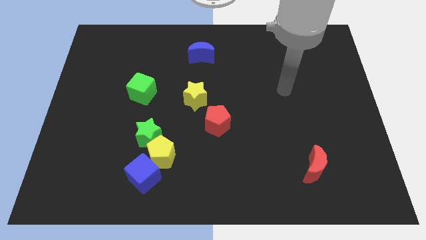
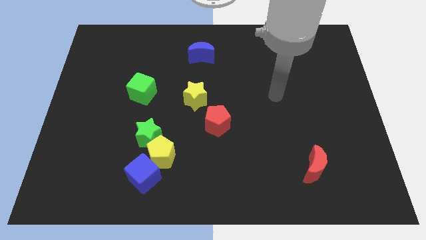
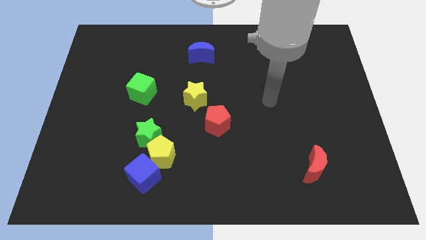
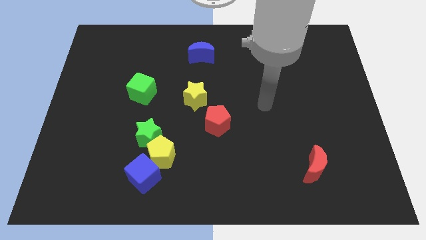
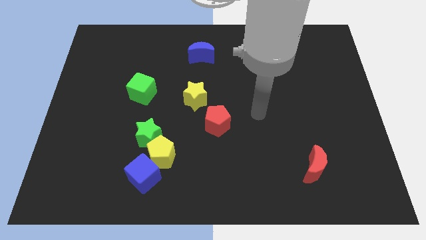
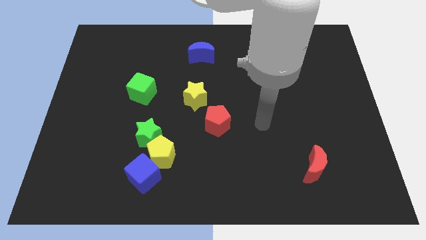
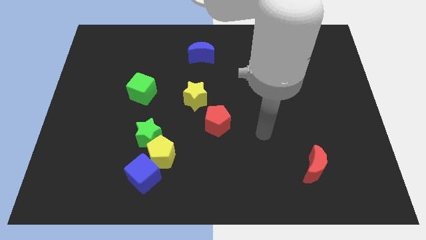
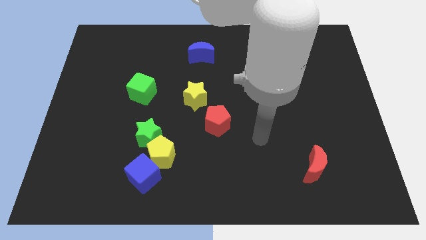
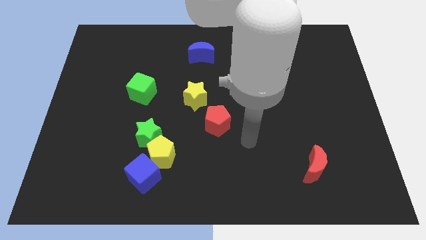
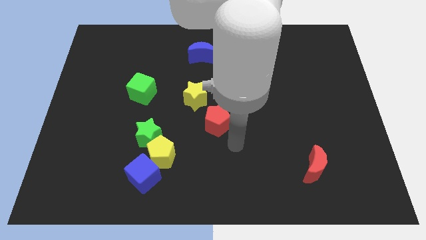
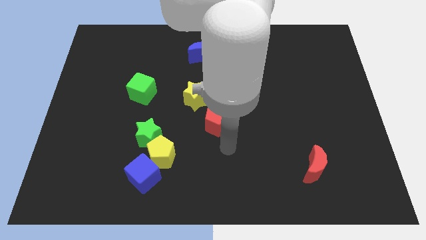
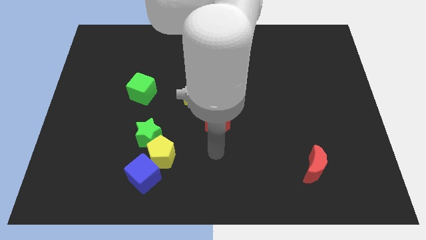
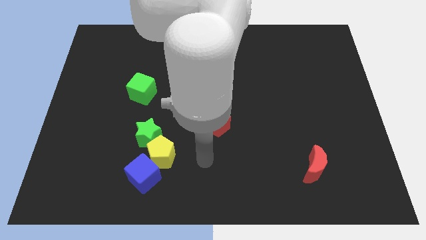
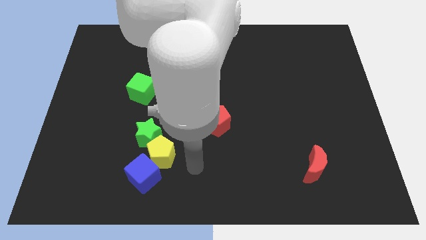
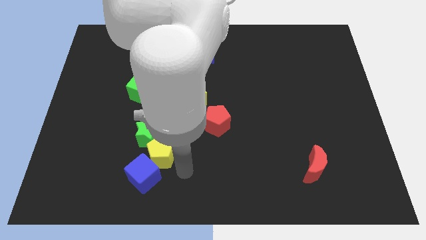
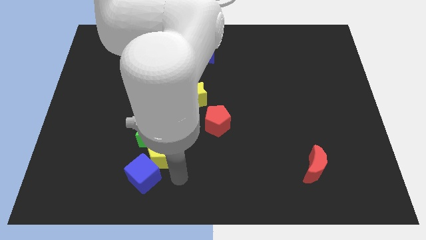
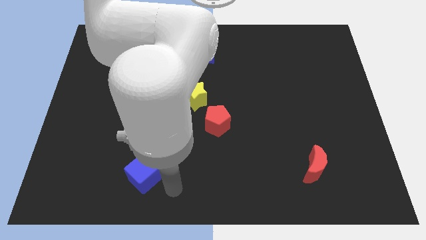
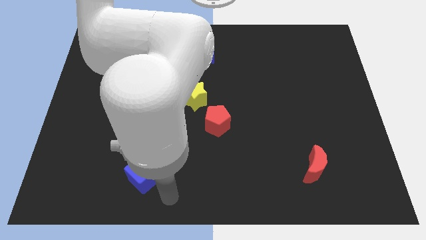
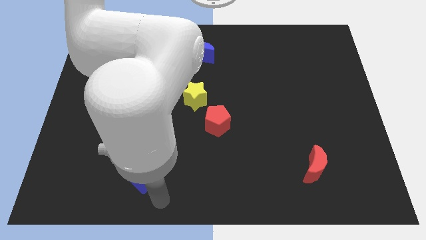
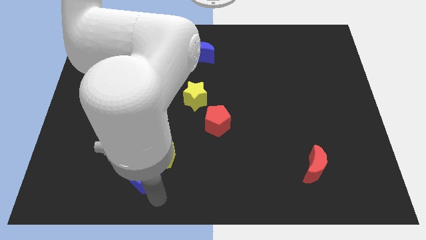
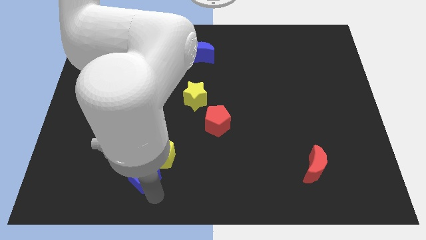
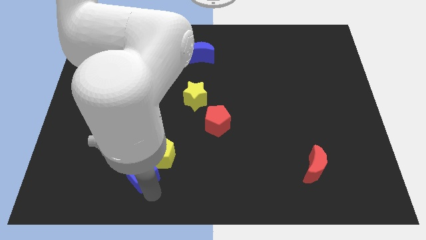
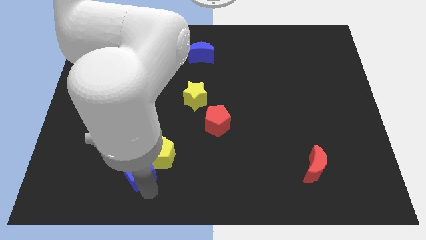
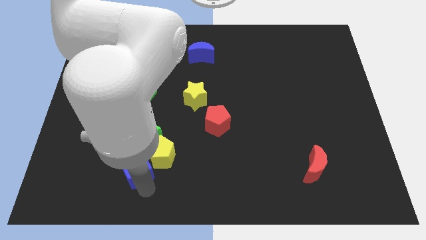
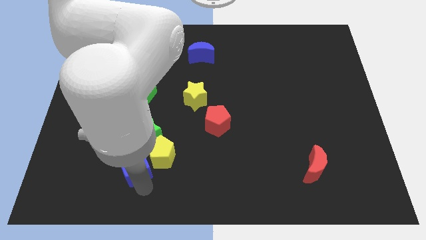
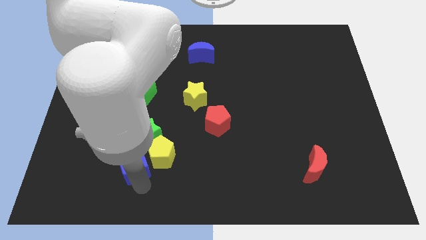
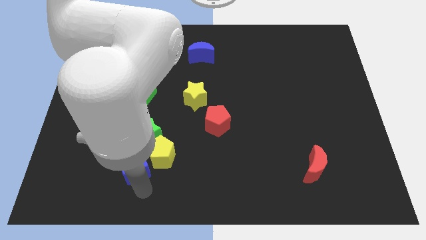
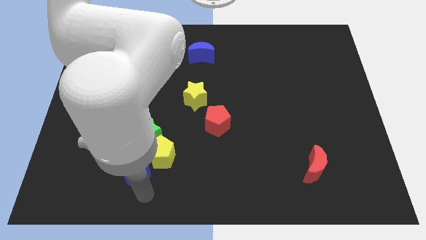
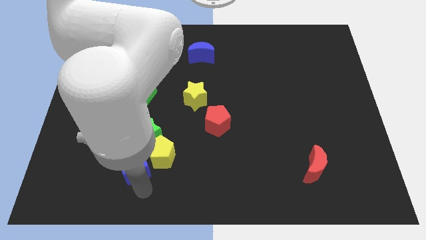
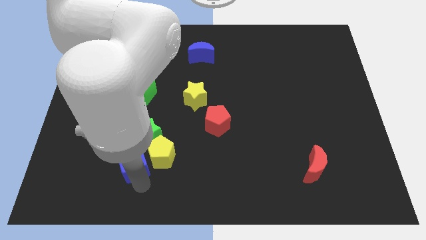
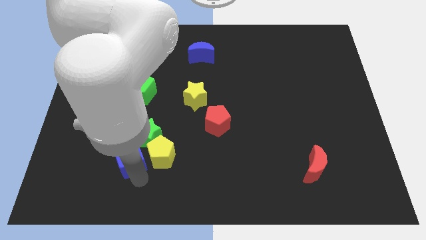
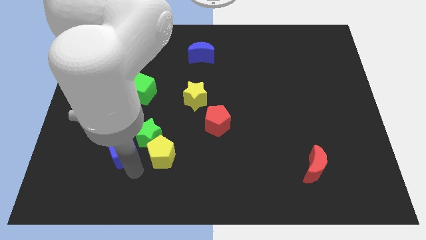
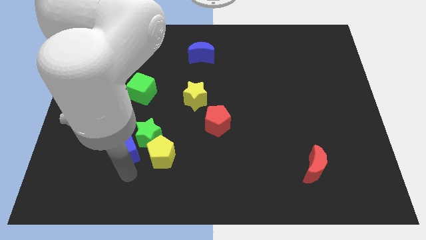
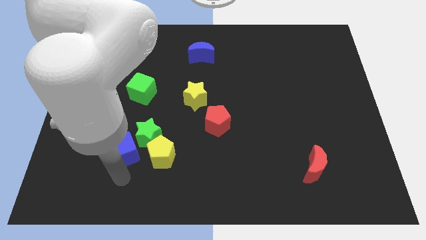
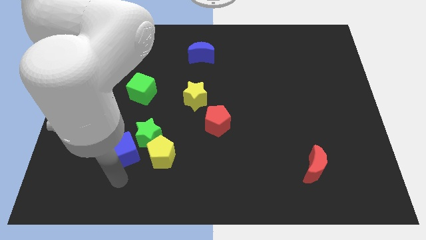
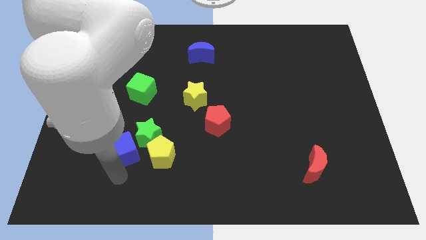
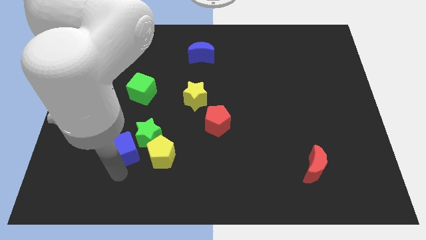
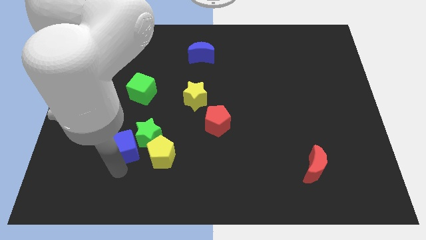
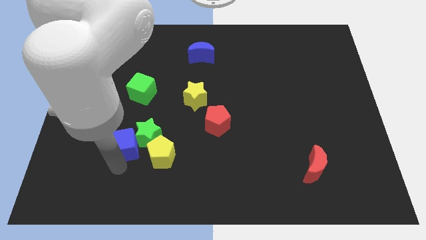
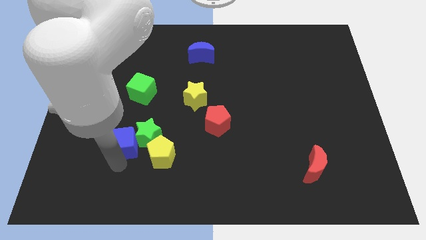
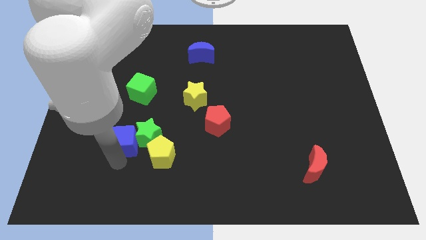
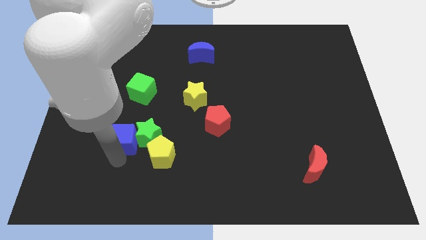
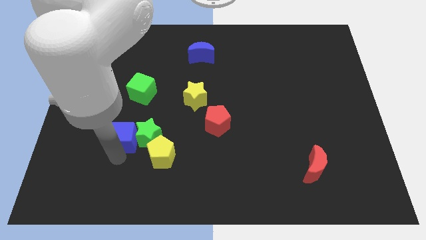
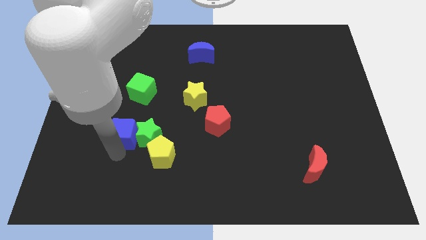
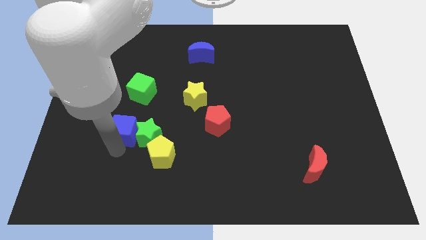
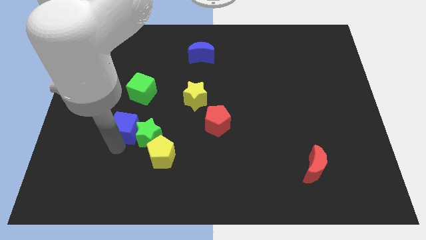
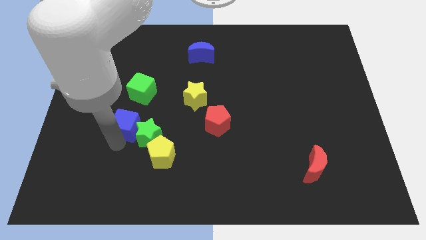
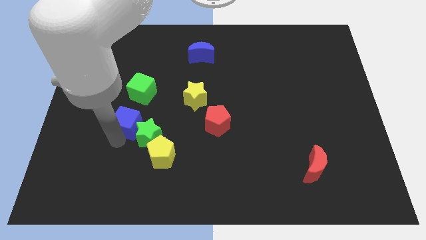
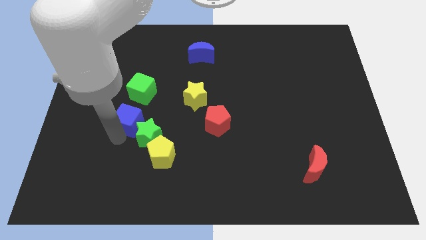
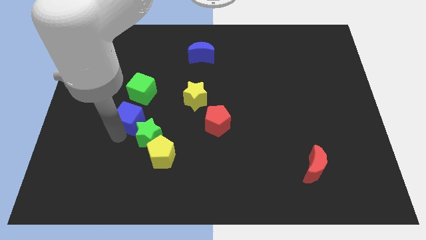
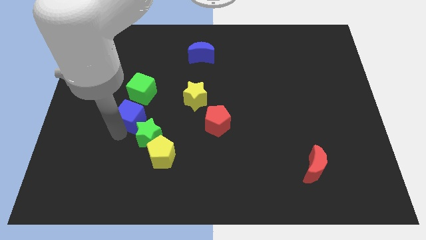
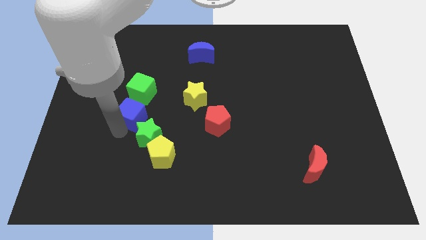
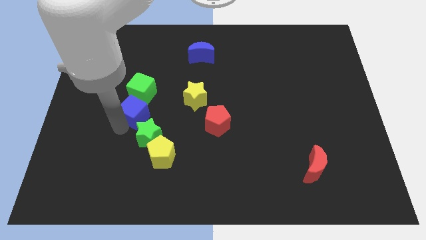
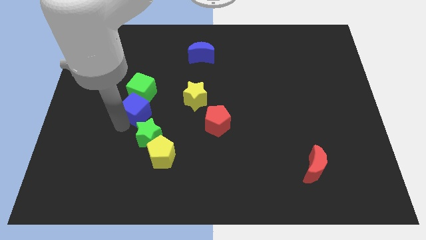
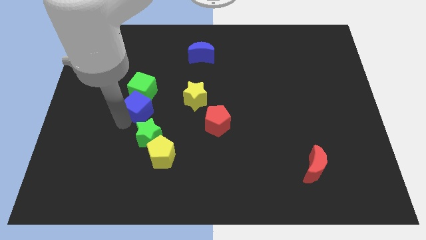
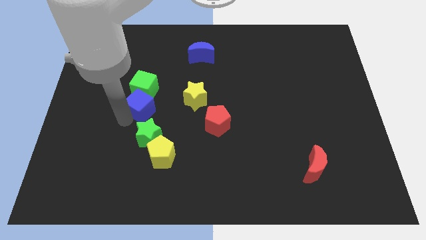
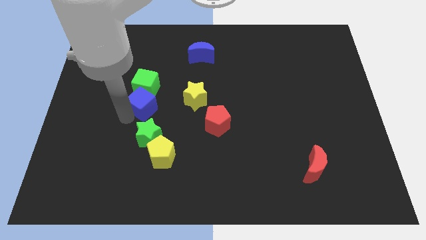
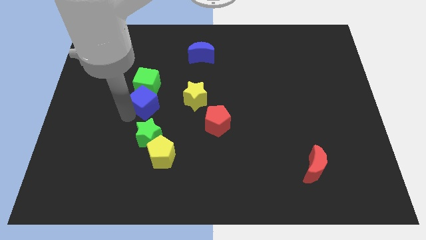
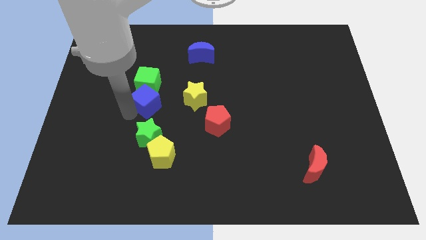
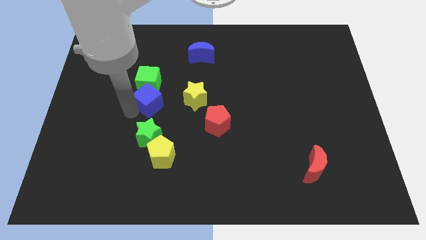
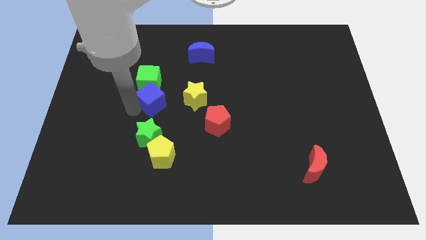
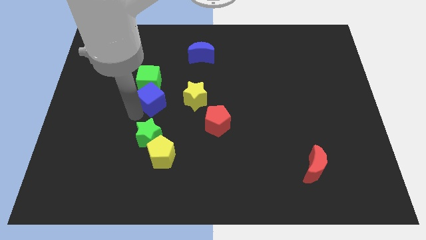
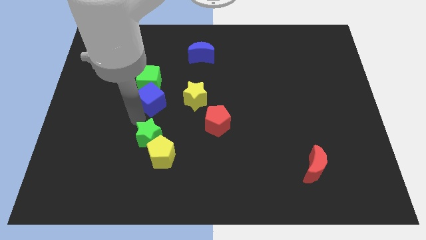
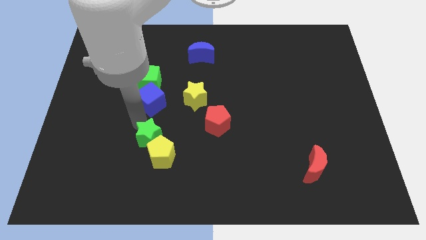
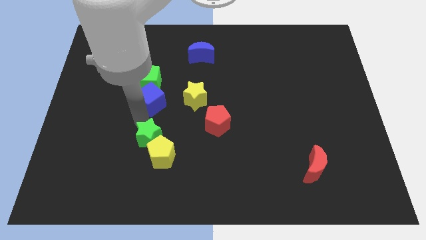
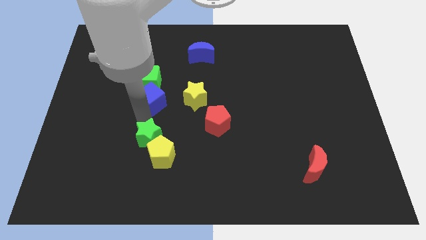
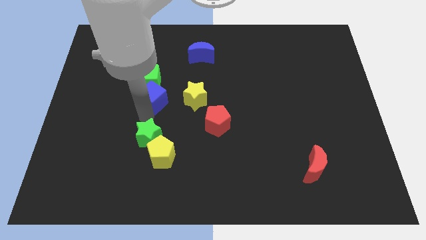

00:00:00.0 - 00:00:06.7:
push the blue cube up

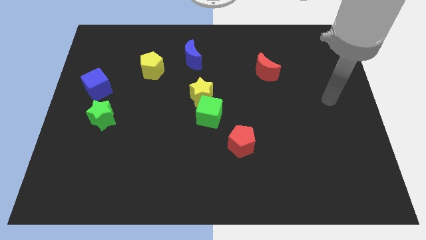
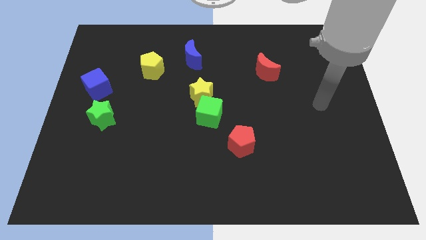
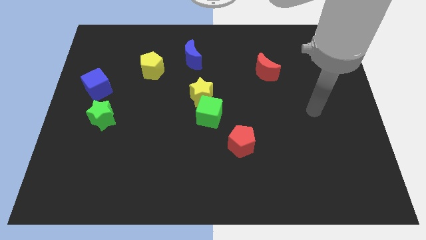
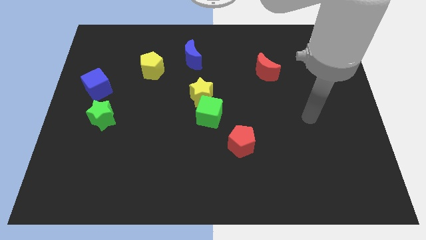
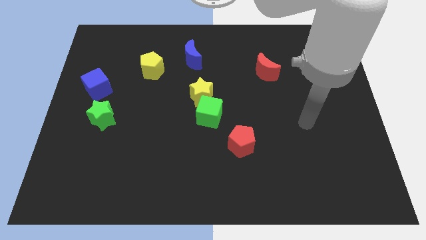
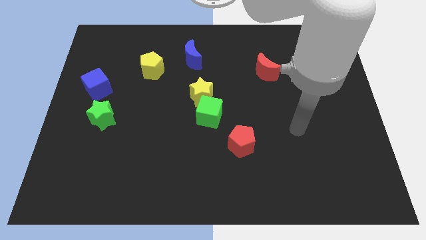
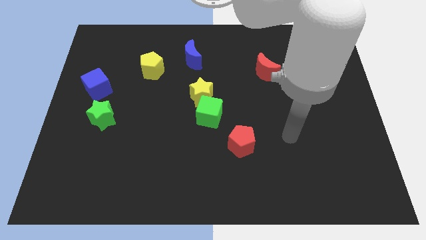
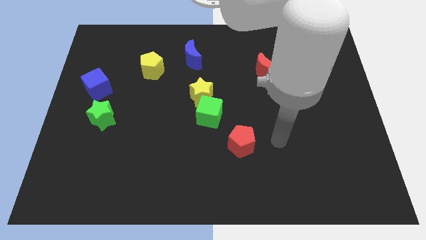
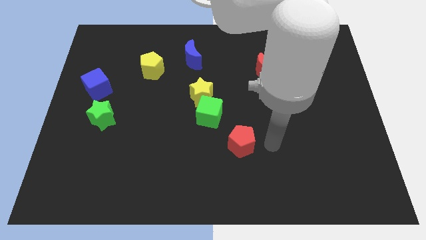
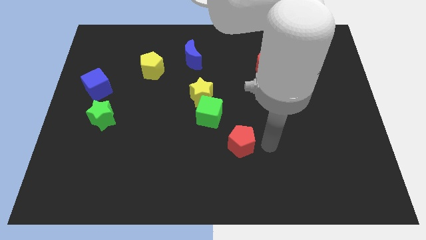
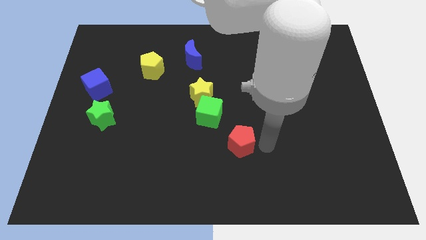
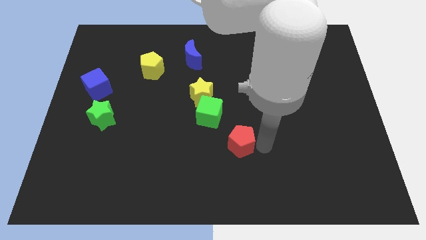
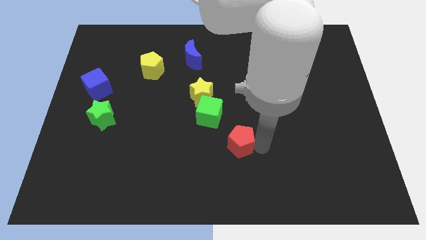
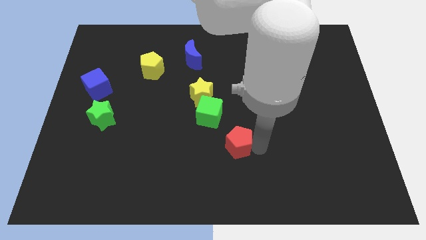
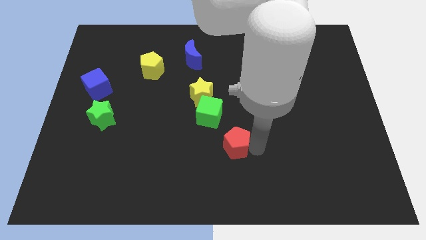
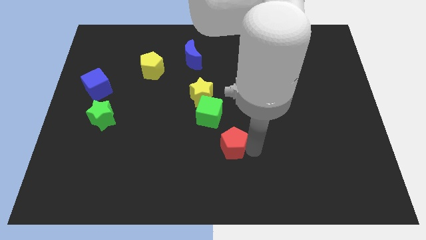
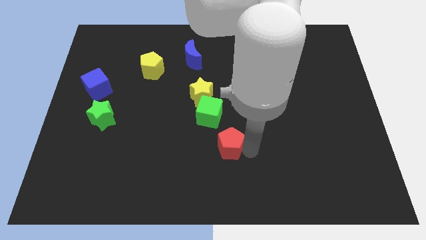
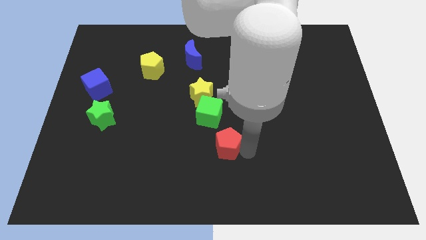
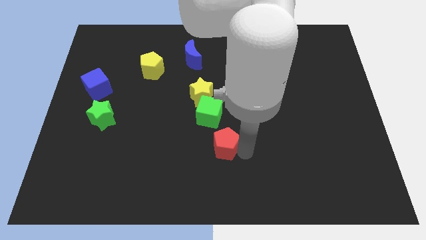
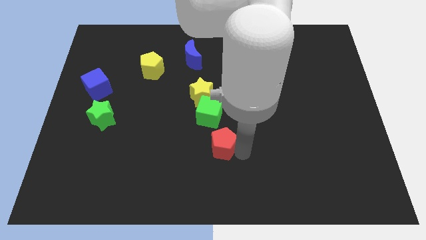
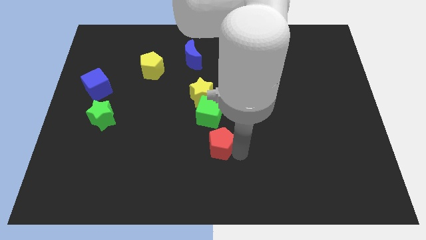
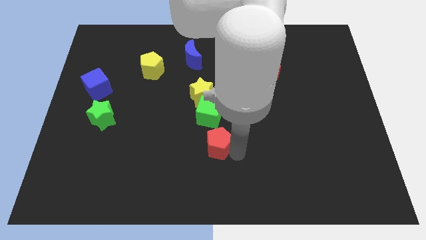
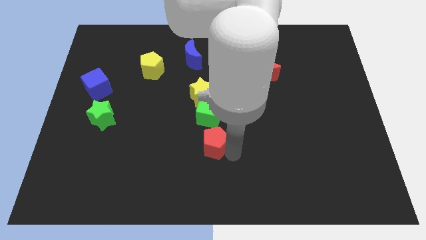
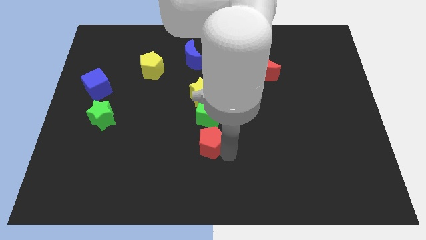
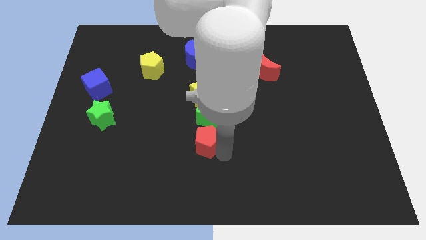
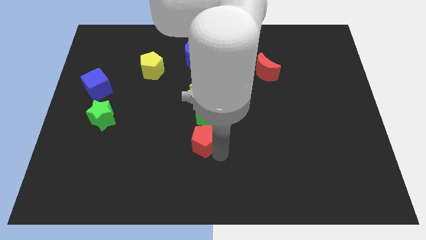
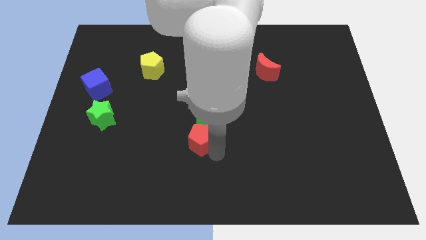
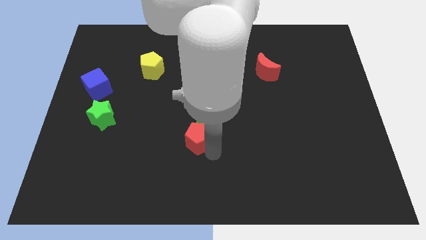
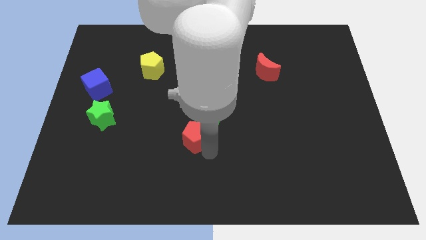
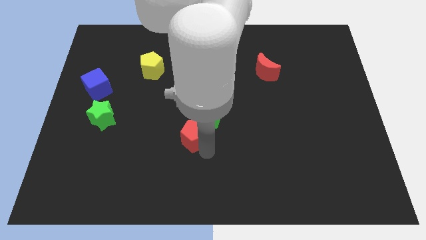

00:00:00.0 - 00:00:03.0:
slightly push the red pentagon upwards and left diagonally
